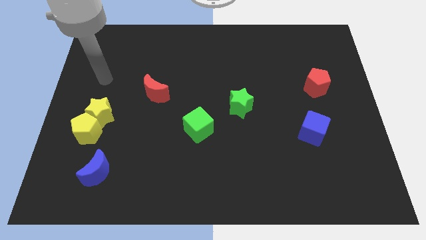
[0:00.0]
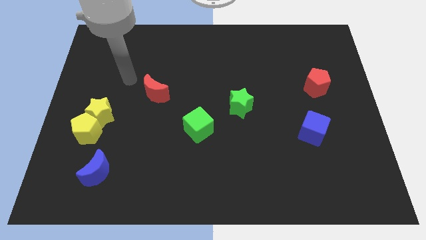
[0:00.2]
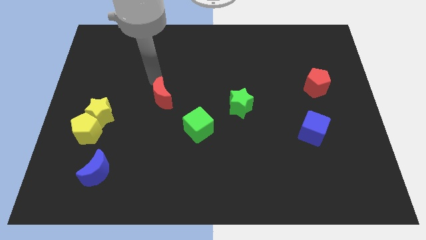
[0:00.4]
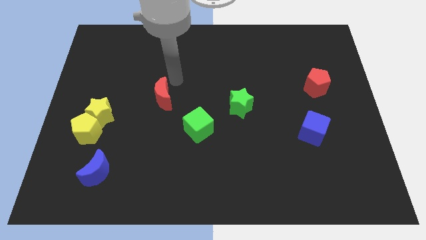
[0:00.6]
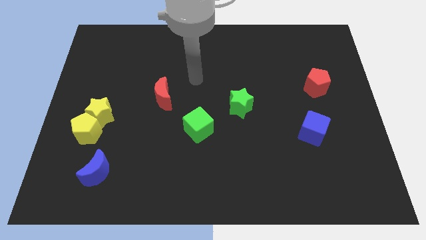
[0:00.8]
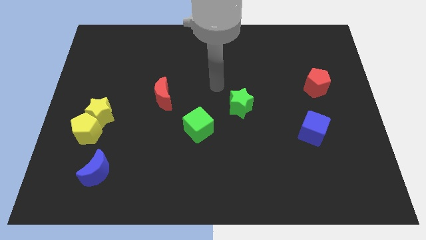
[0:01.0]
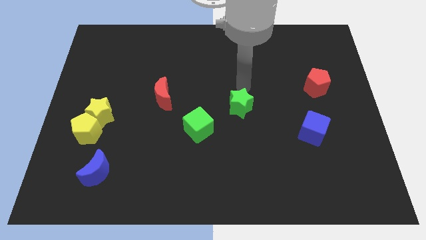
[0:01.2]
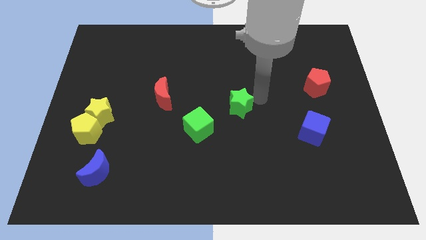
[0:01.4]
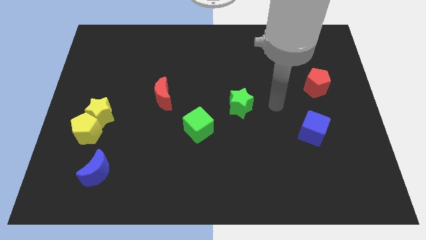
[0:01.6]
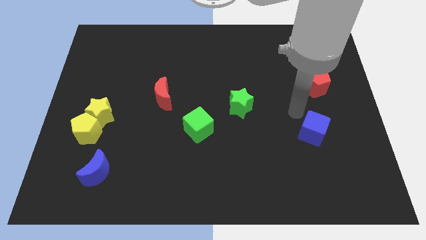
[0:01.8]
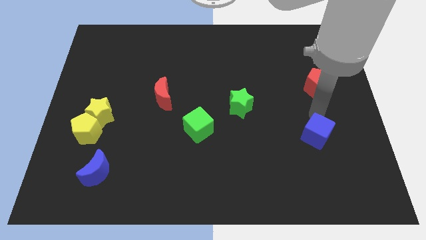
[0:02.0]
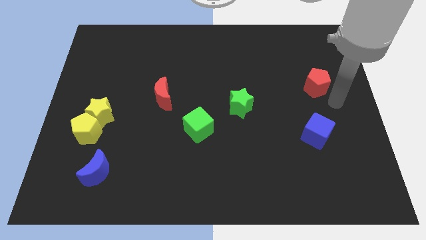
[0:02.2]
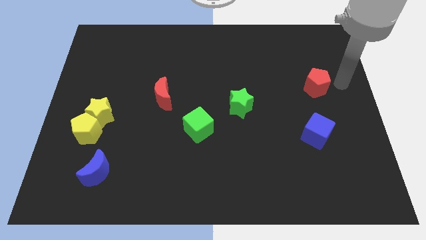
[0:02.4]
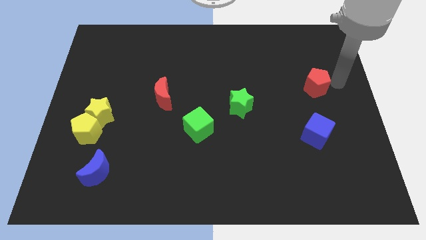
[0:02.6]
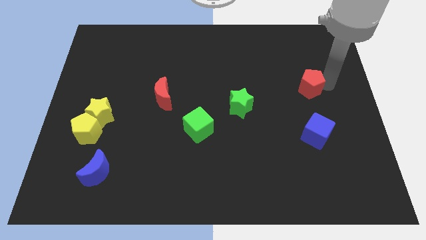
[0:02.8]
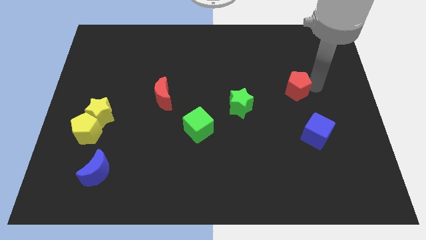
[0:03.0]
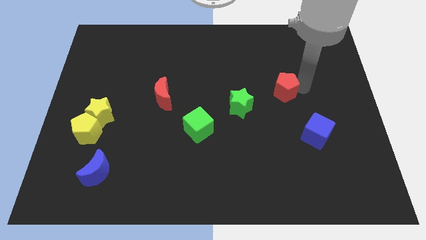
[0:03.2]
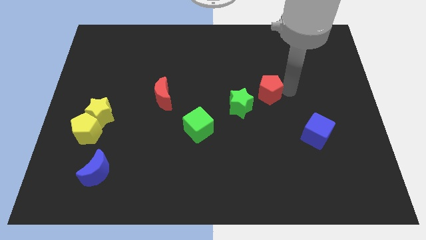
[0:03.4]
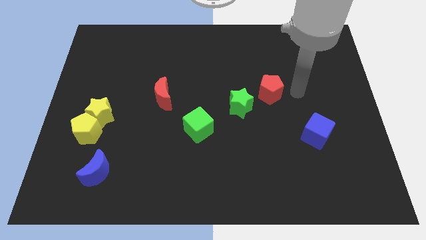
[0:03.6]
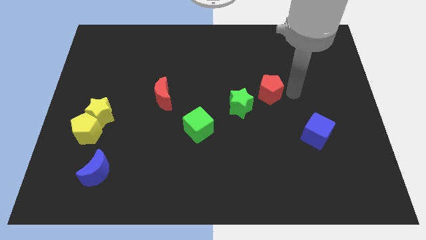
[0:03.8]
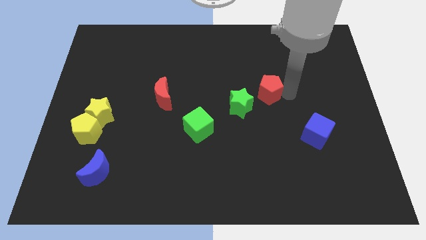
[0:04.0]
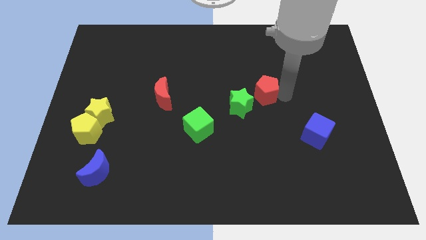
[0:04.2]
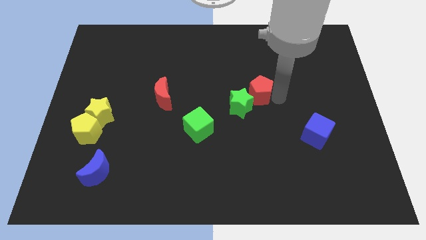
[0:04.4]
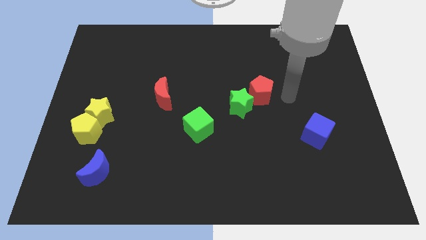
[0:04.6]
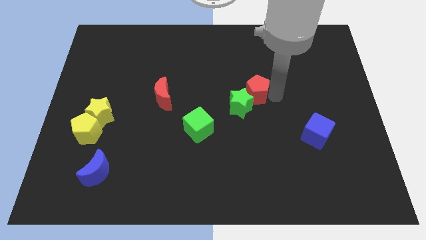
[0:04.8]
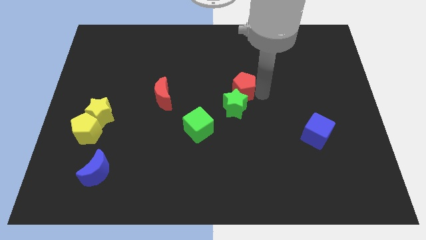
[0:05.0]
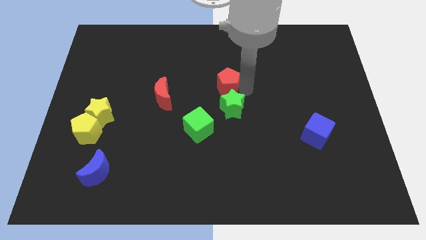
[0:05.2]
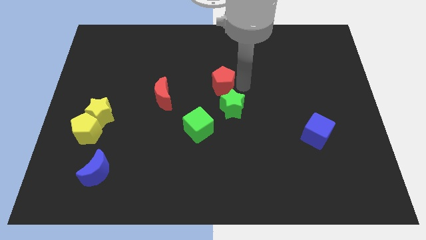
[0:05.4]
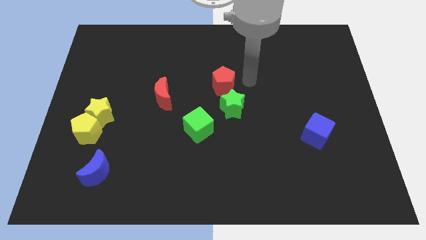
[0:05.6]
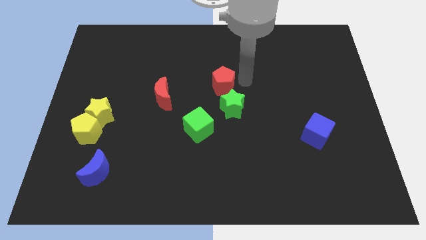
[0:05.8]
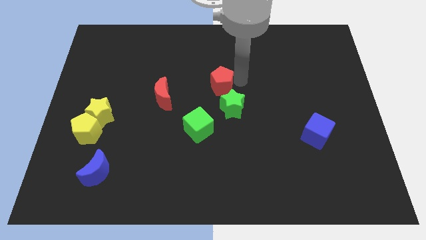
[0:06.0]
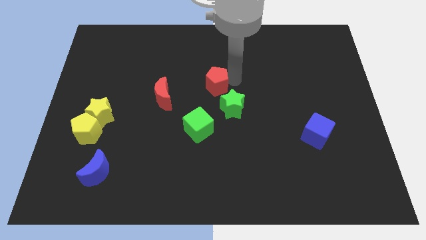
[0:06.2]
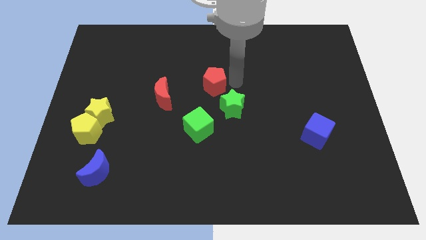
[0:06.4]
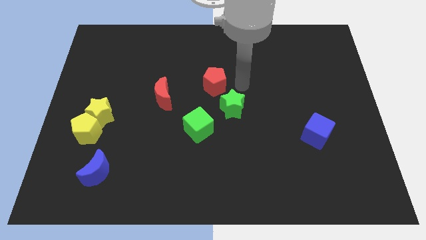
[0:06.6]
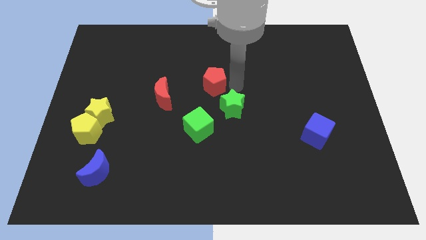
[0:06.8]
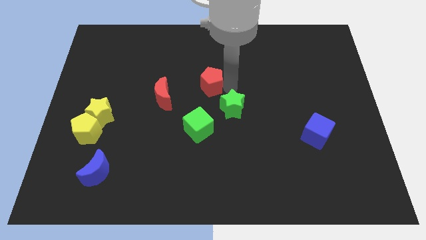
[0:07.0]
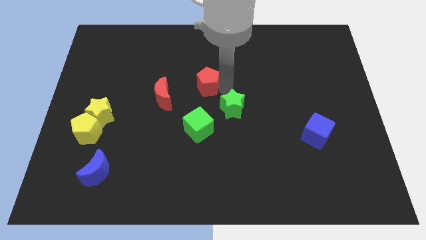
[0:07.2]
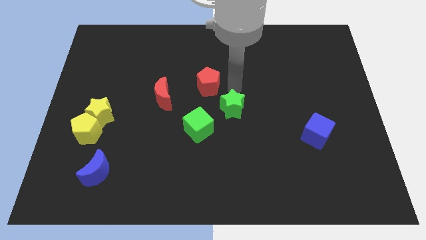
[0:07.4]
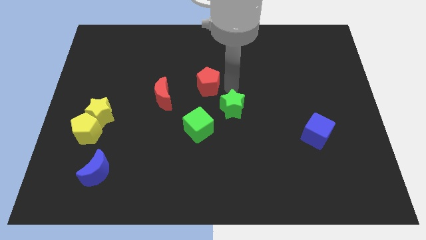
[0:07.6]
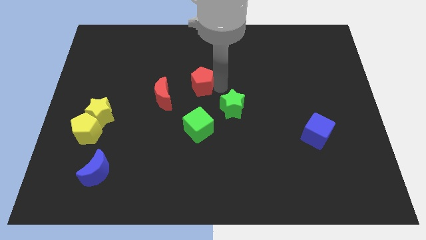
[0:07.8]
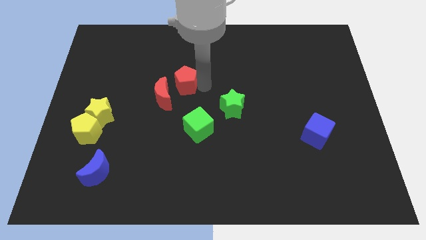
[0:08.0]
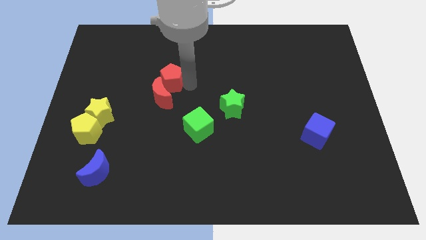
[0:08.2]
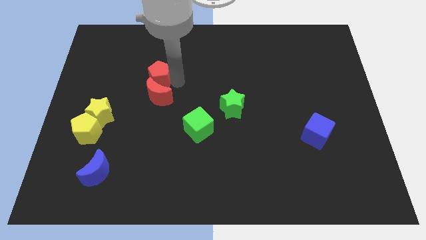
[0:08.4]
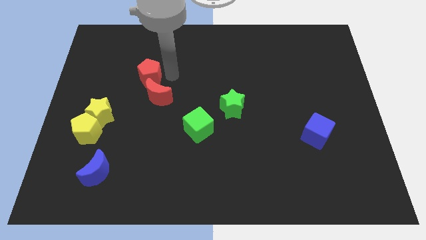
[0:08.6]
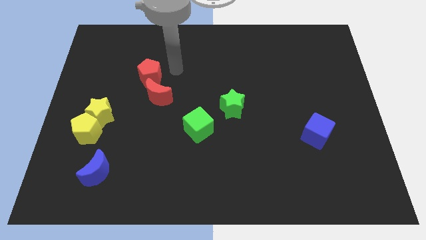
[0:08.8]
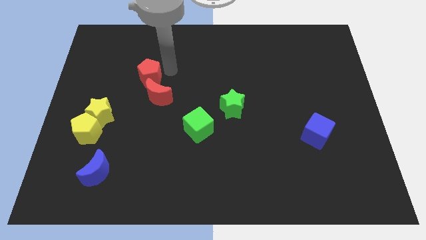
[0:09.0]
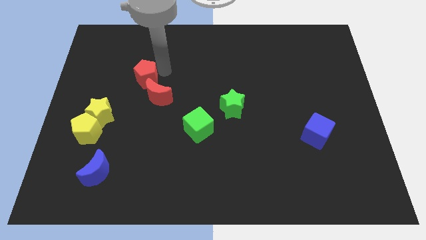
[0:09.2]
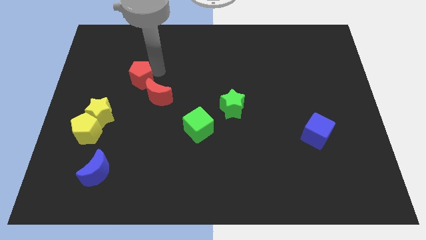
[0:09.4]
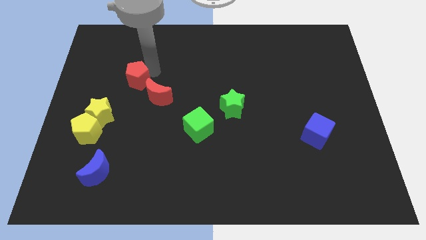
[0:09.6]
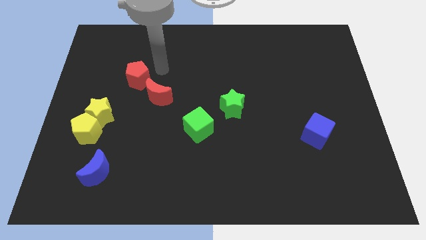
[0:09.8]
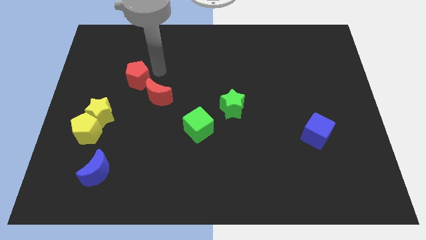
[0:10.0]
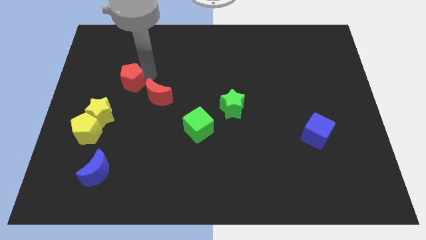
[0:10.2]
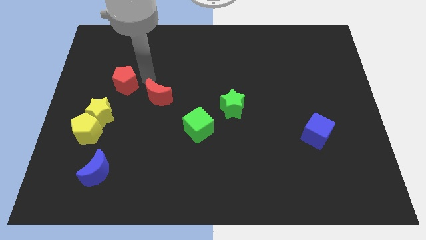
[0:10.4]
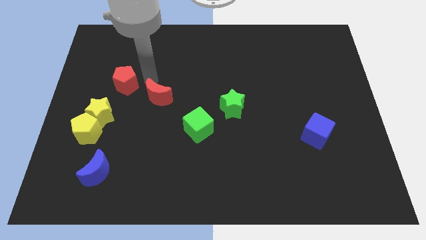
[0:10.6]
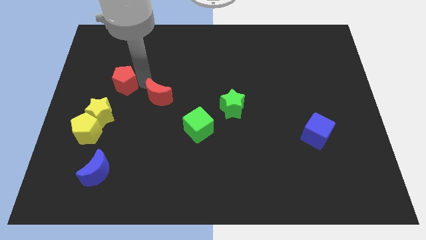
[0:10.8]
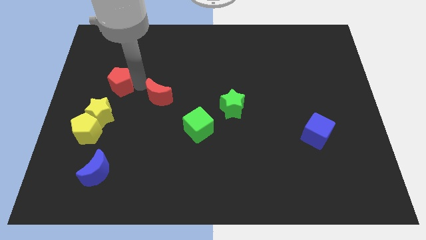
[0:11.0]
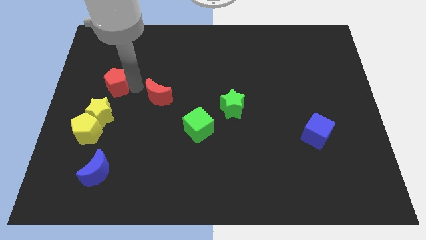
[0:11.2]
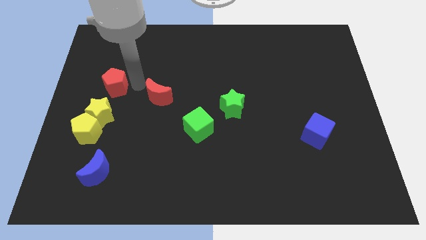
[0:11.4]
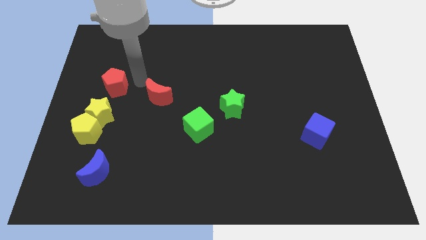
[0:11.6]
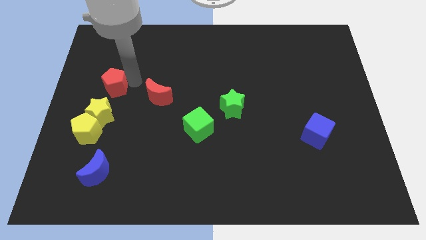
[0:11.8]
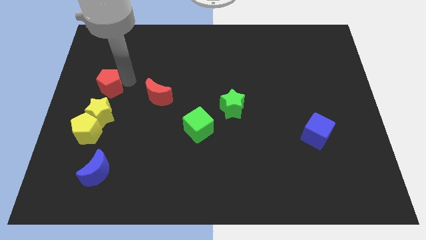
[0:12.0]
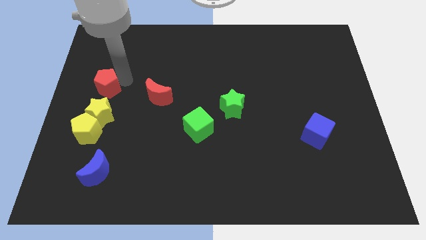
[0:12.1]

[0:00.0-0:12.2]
slide the red pentagon to the center left
